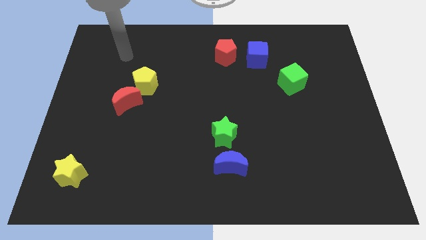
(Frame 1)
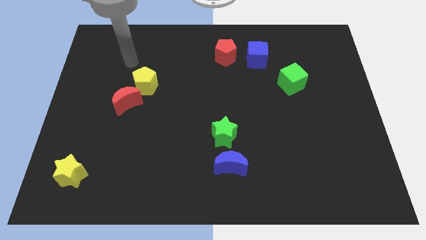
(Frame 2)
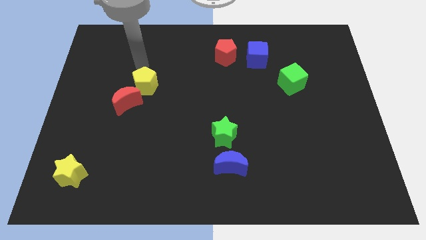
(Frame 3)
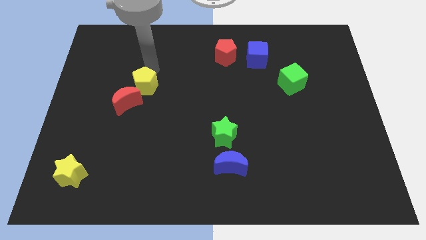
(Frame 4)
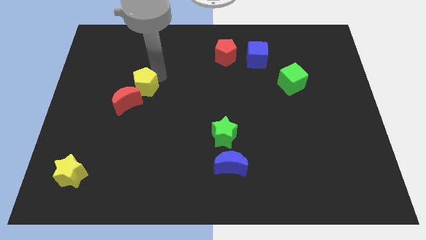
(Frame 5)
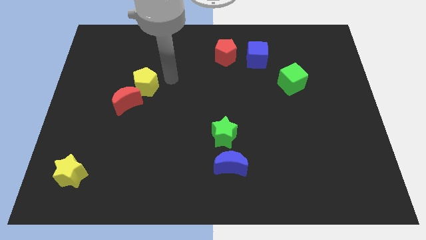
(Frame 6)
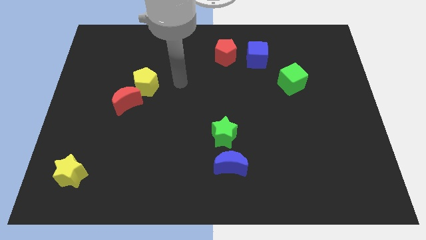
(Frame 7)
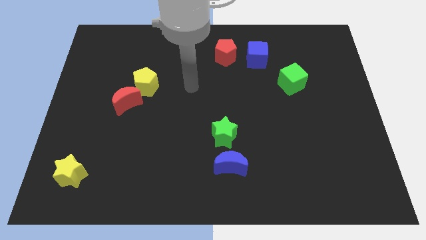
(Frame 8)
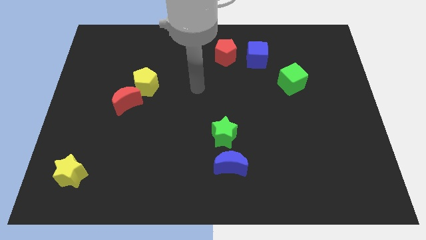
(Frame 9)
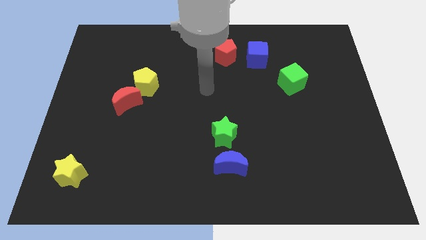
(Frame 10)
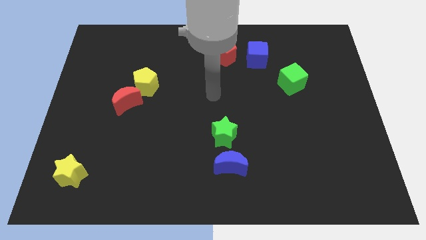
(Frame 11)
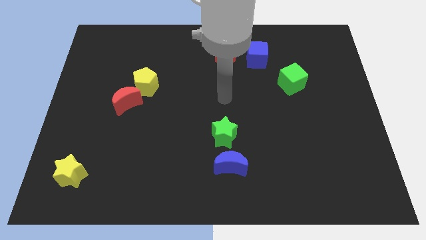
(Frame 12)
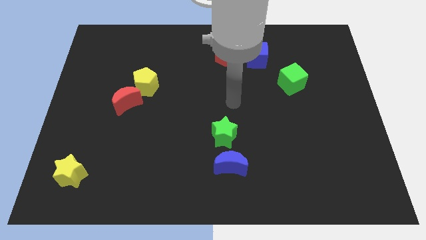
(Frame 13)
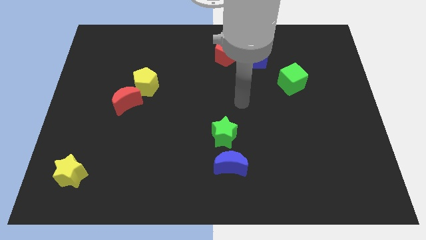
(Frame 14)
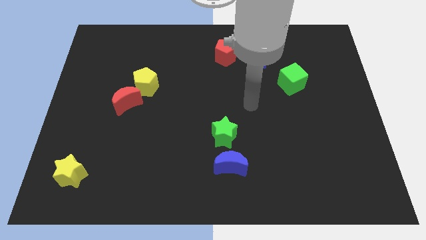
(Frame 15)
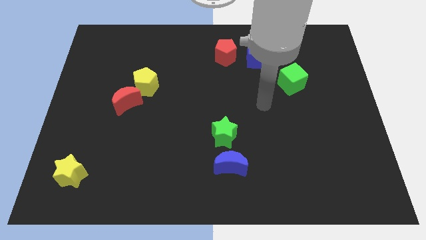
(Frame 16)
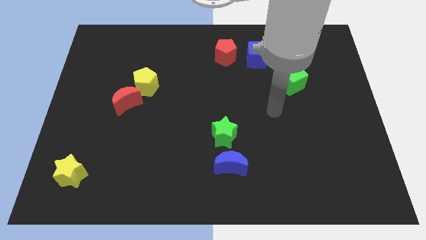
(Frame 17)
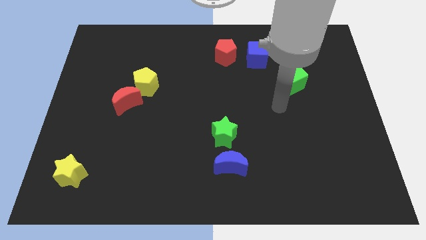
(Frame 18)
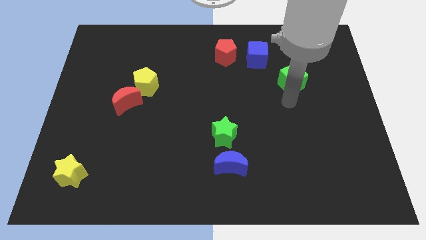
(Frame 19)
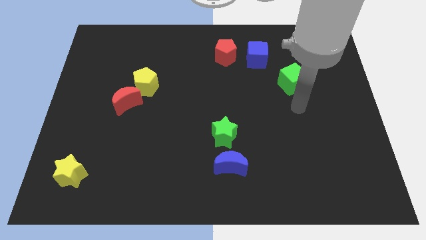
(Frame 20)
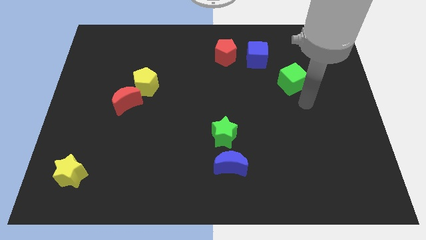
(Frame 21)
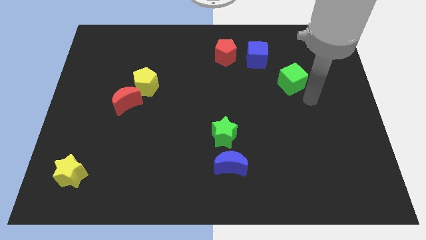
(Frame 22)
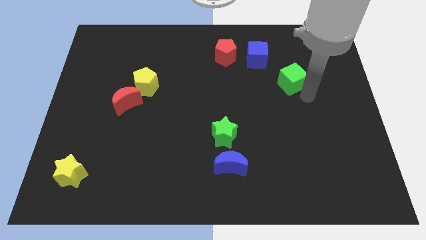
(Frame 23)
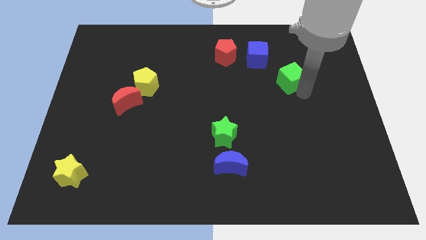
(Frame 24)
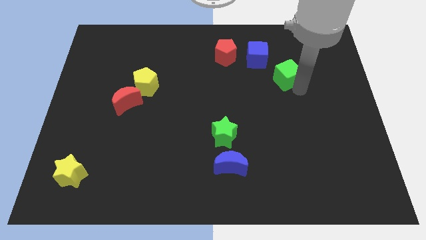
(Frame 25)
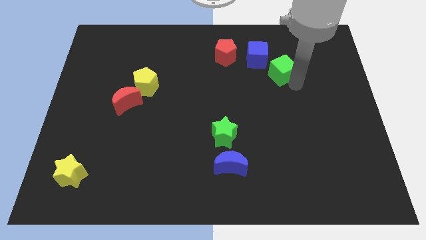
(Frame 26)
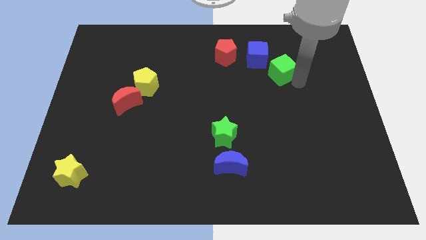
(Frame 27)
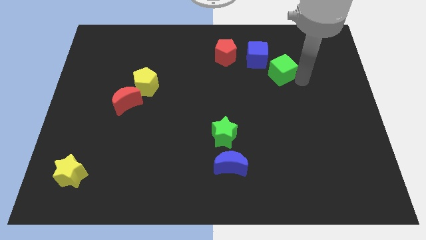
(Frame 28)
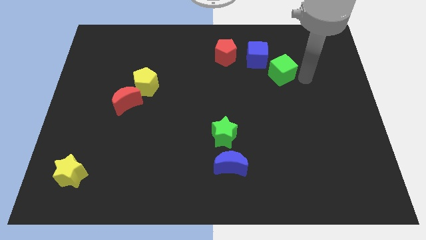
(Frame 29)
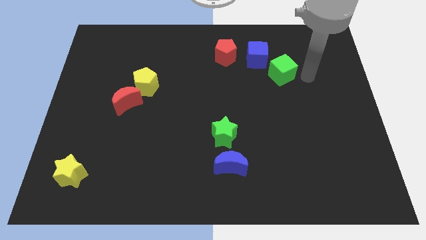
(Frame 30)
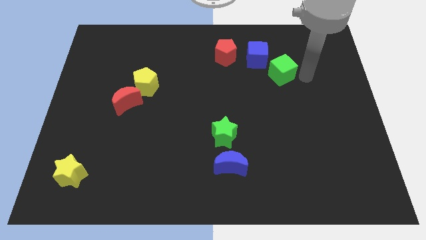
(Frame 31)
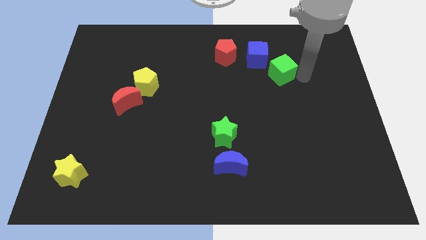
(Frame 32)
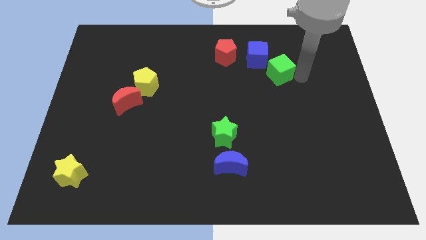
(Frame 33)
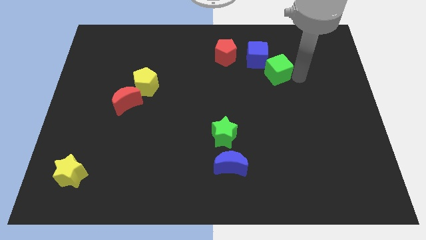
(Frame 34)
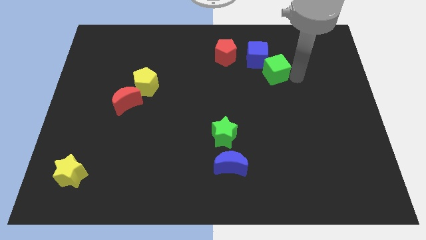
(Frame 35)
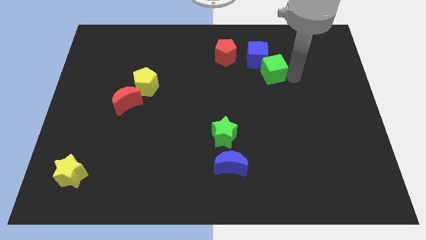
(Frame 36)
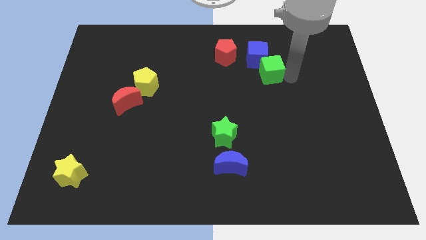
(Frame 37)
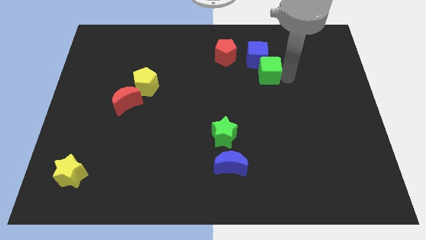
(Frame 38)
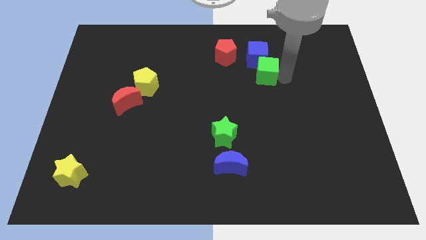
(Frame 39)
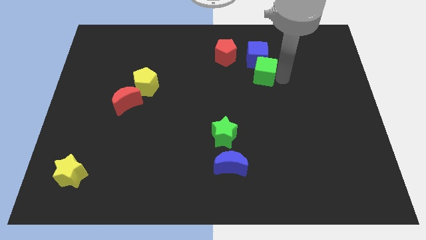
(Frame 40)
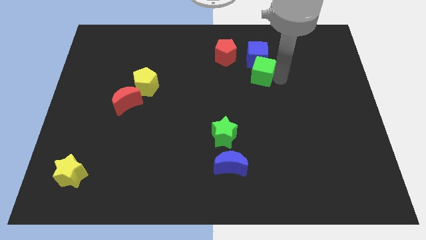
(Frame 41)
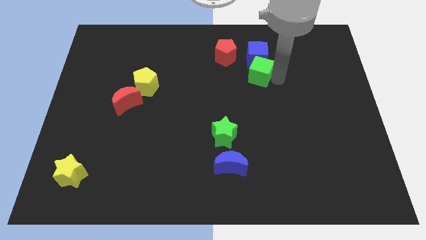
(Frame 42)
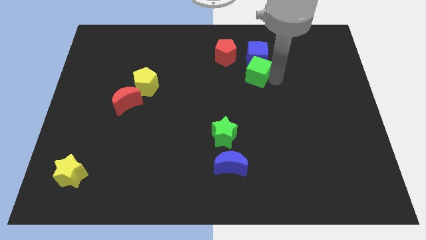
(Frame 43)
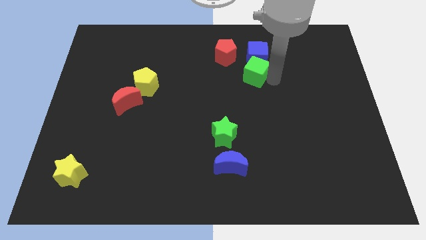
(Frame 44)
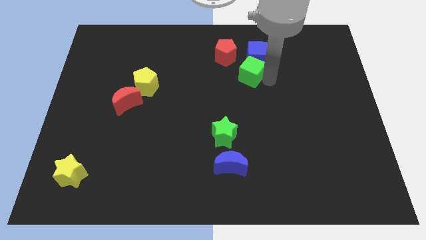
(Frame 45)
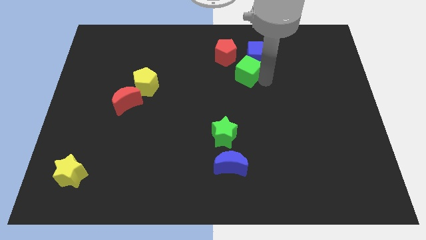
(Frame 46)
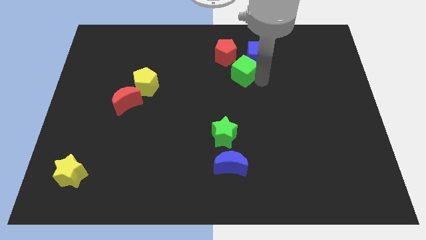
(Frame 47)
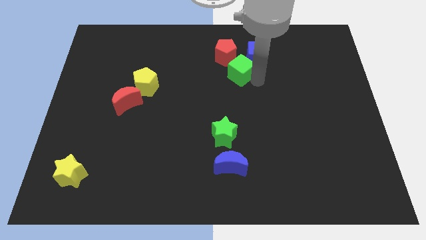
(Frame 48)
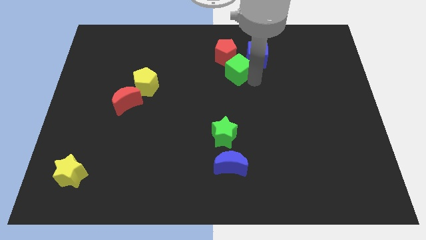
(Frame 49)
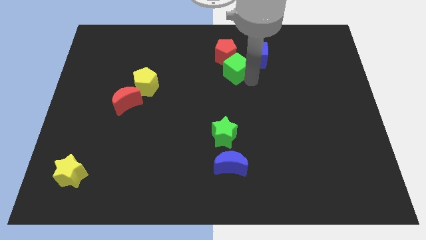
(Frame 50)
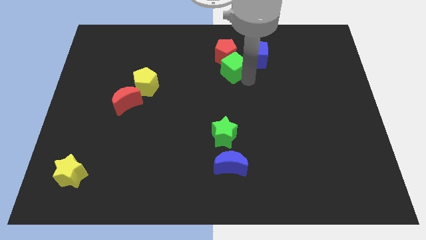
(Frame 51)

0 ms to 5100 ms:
push the green cube close to the red pentagon

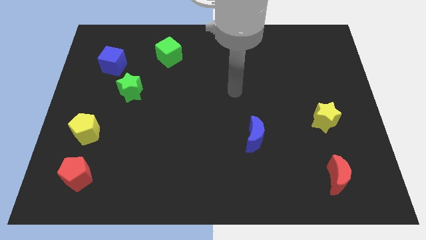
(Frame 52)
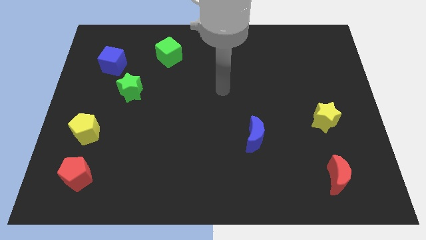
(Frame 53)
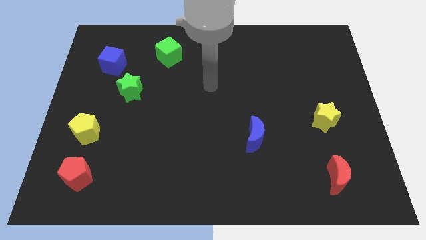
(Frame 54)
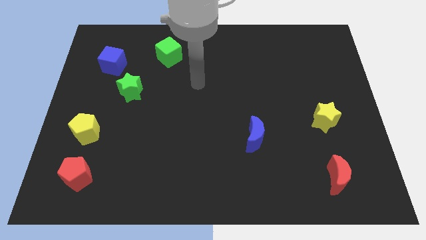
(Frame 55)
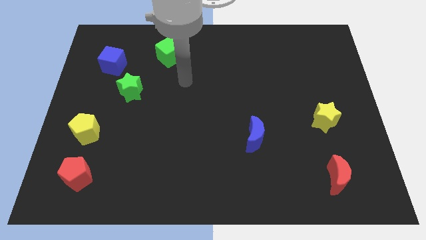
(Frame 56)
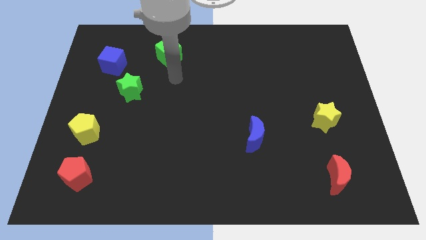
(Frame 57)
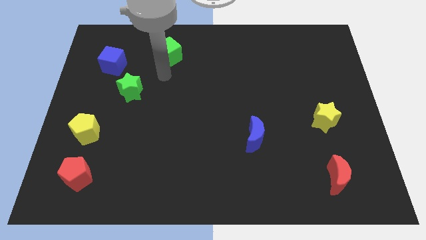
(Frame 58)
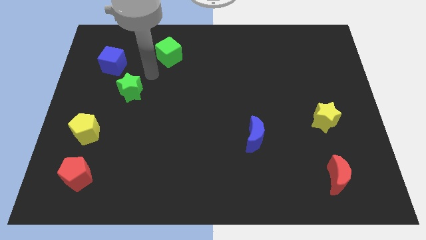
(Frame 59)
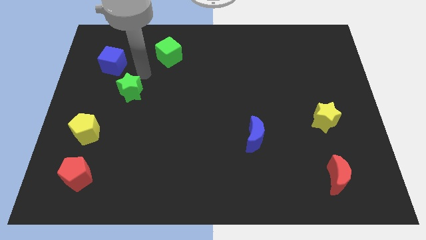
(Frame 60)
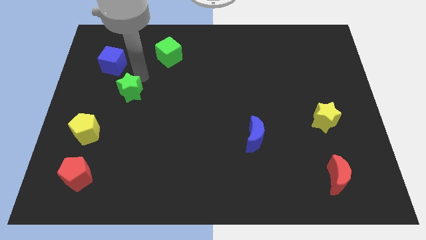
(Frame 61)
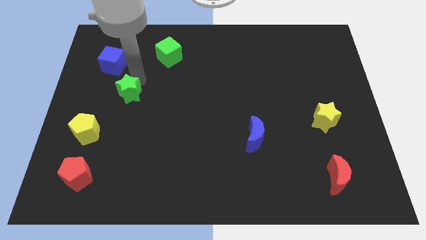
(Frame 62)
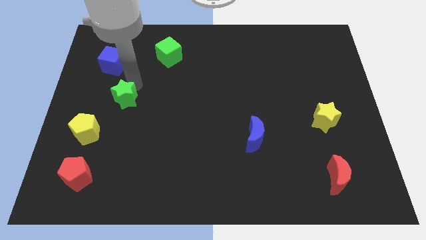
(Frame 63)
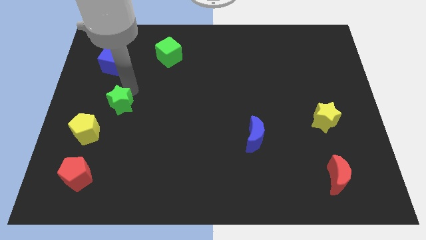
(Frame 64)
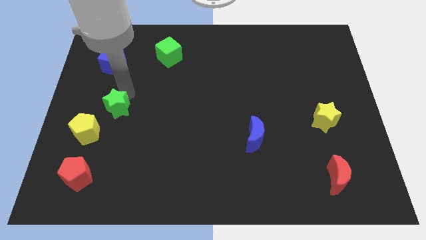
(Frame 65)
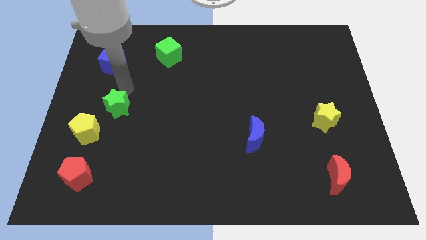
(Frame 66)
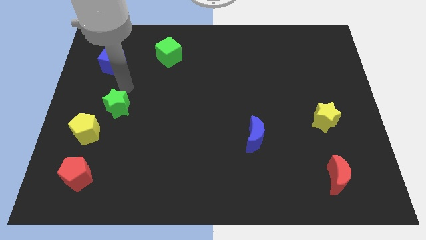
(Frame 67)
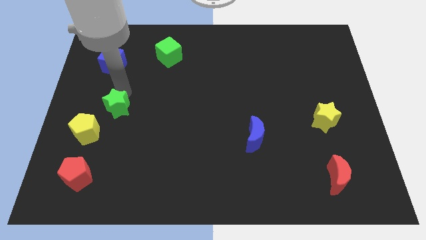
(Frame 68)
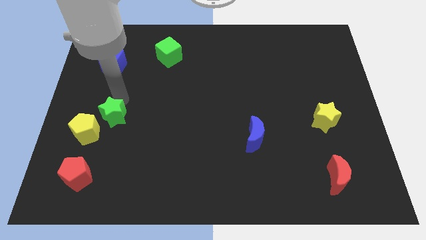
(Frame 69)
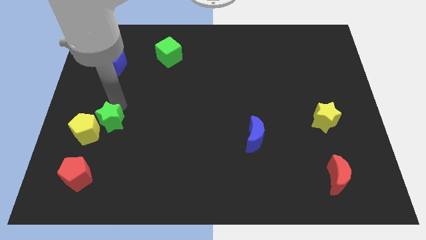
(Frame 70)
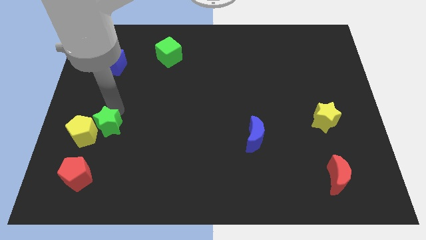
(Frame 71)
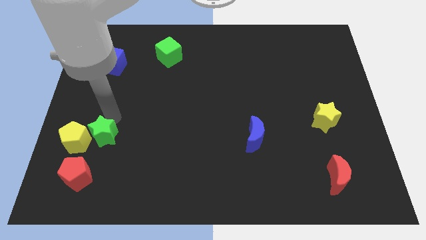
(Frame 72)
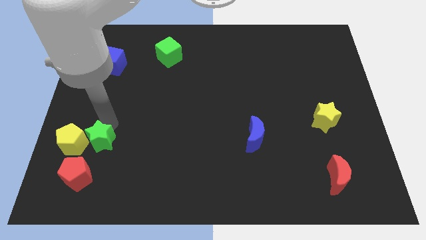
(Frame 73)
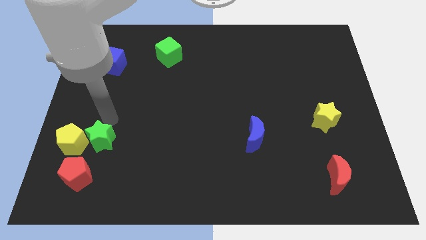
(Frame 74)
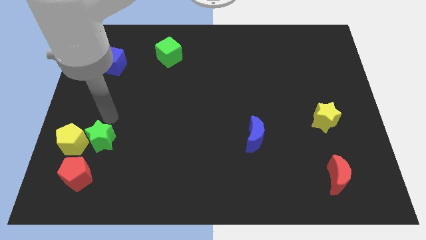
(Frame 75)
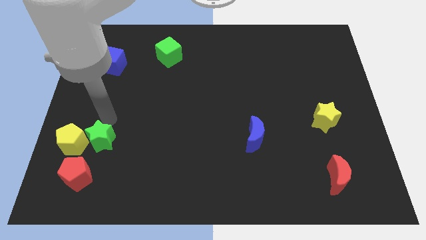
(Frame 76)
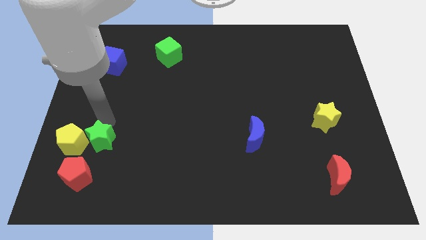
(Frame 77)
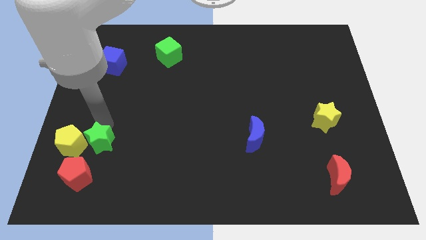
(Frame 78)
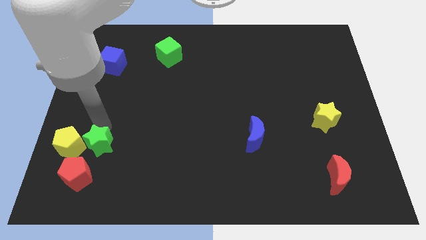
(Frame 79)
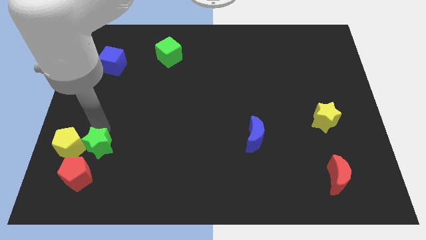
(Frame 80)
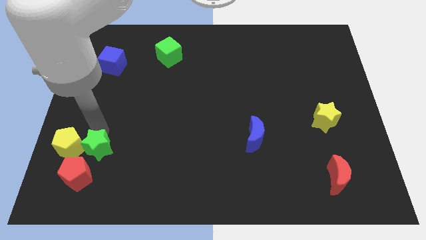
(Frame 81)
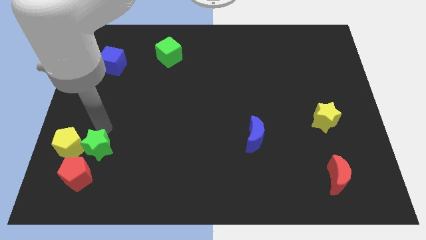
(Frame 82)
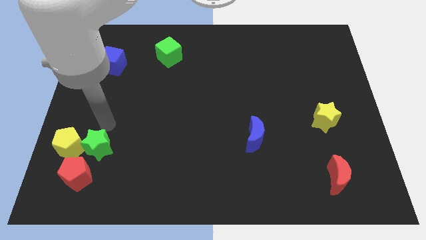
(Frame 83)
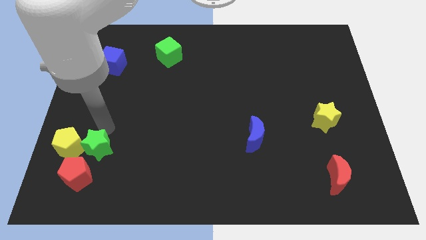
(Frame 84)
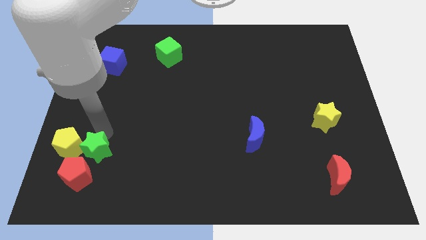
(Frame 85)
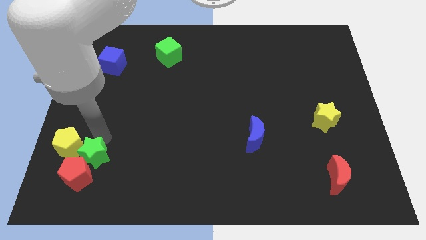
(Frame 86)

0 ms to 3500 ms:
slide the green star next to the red pentagon
